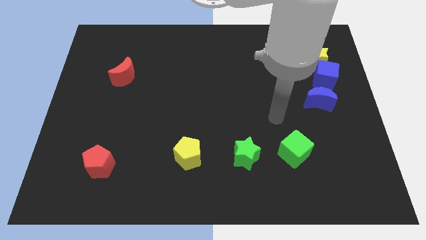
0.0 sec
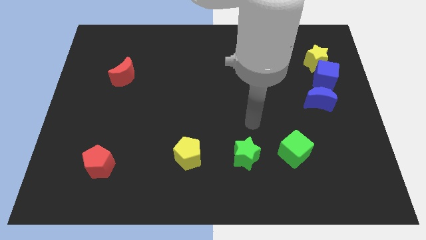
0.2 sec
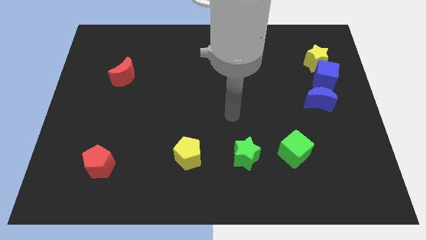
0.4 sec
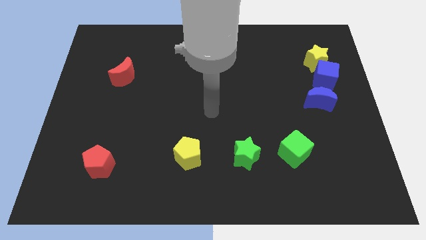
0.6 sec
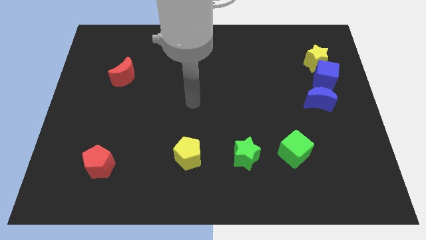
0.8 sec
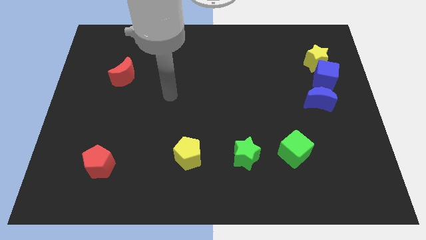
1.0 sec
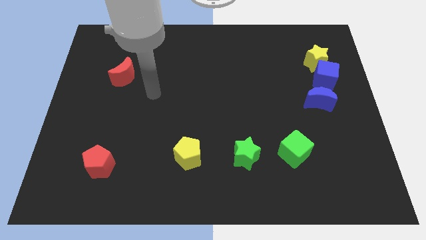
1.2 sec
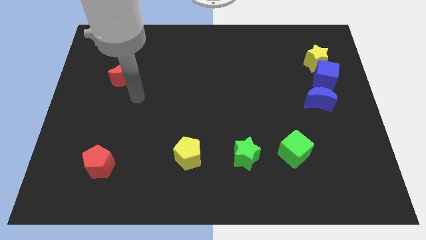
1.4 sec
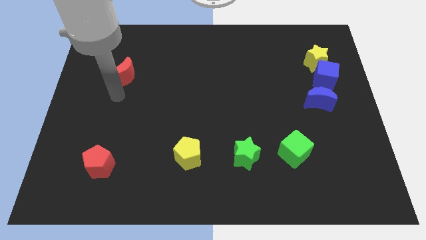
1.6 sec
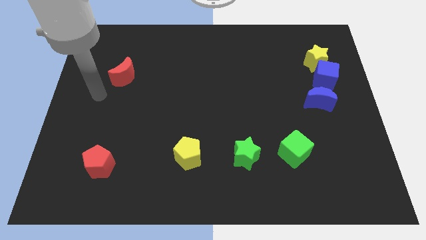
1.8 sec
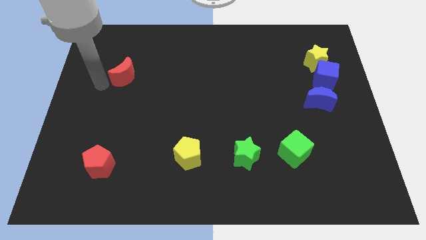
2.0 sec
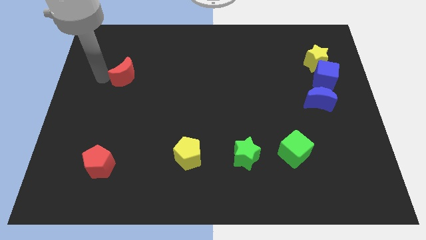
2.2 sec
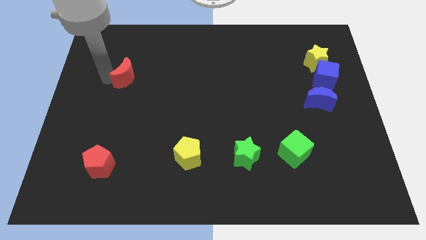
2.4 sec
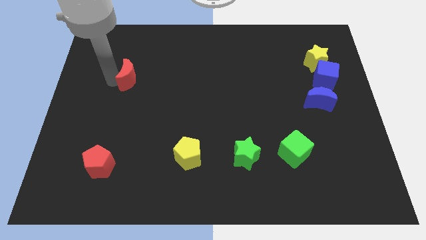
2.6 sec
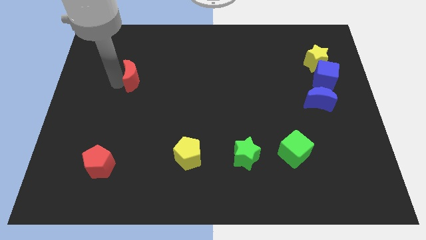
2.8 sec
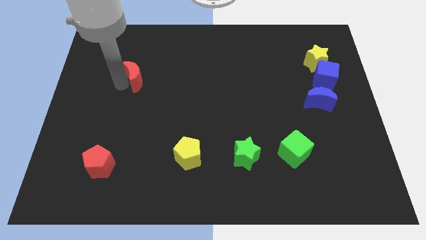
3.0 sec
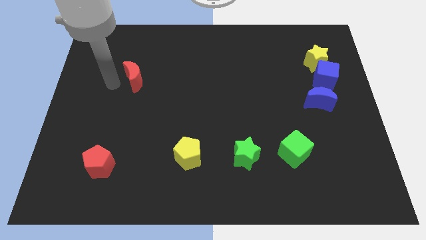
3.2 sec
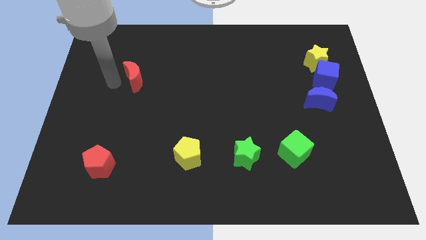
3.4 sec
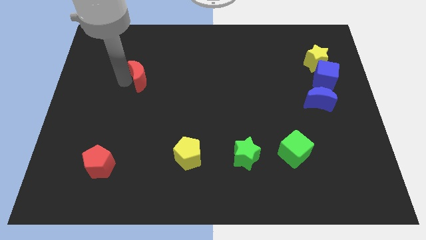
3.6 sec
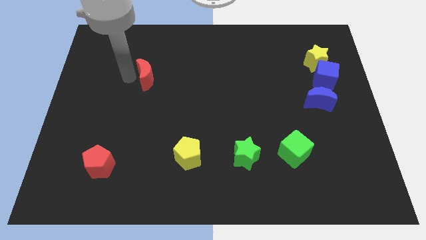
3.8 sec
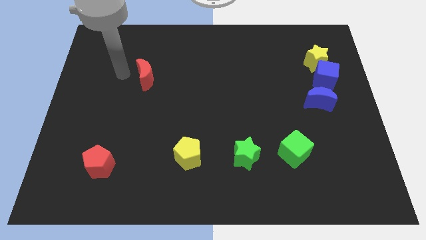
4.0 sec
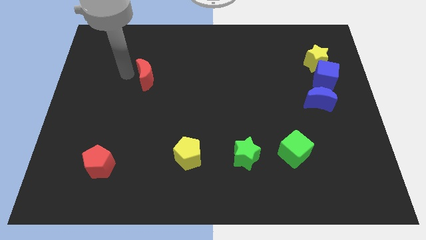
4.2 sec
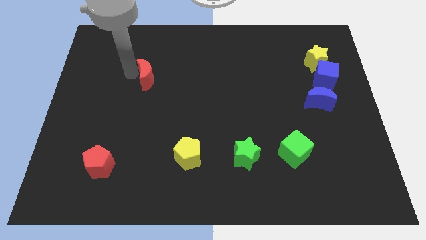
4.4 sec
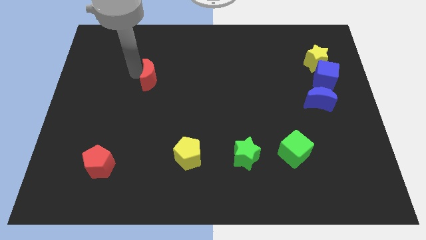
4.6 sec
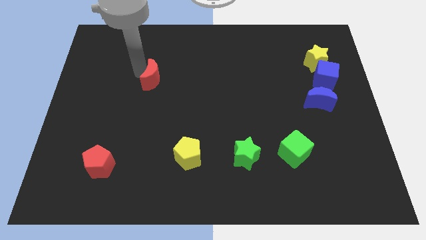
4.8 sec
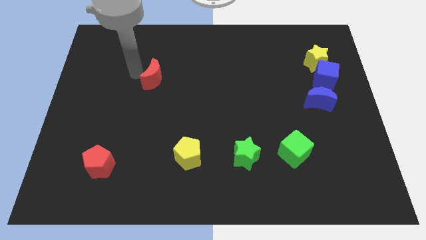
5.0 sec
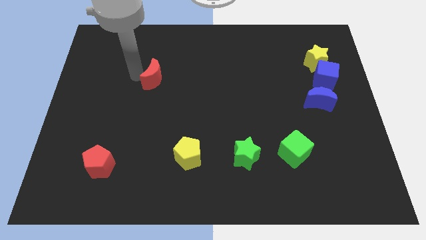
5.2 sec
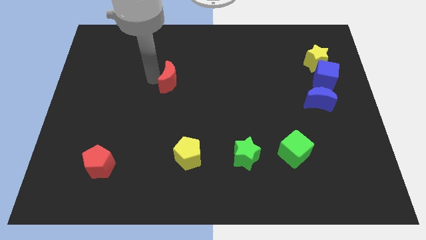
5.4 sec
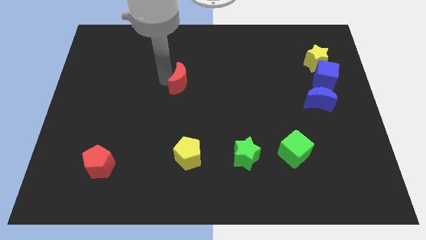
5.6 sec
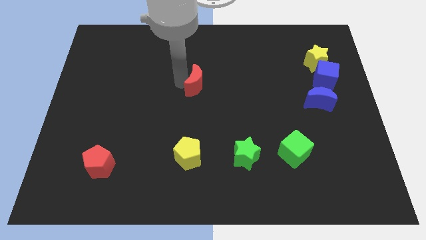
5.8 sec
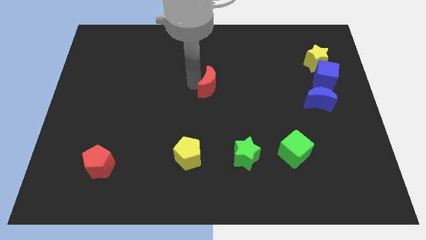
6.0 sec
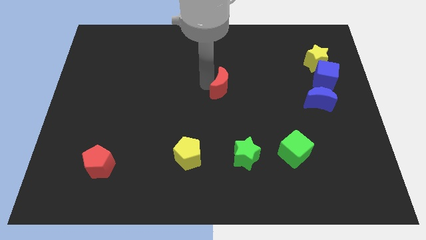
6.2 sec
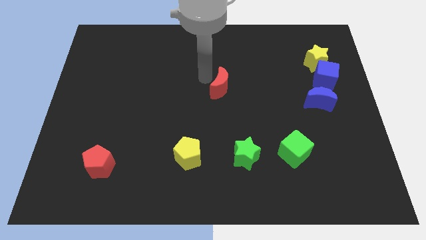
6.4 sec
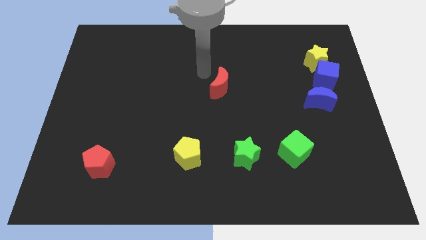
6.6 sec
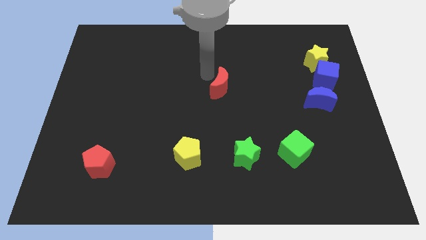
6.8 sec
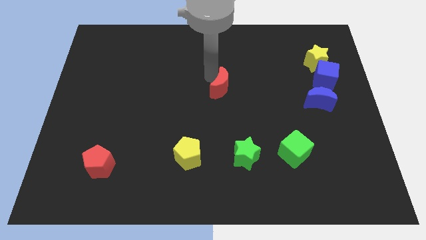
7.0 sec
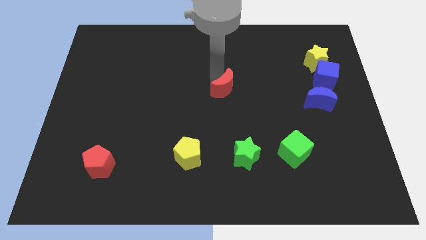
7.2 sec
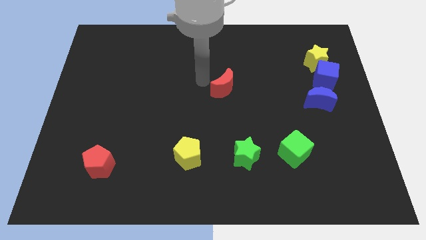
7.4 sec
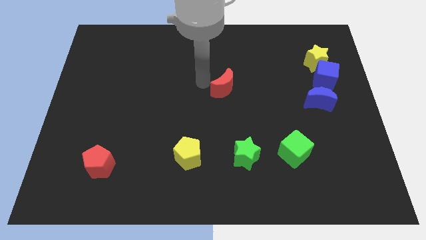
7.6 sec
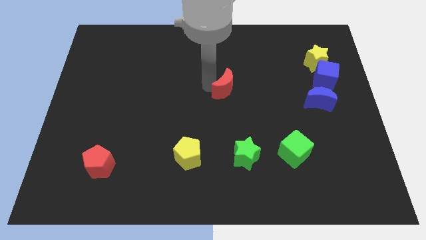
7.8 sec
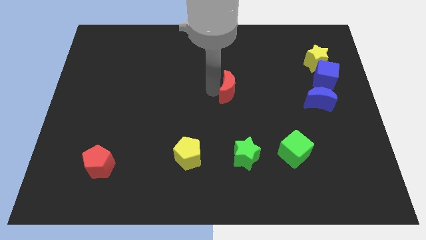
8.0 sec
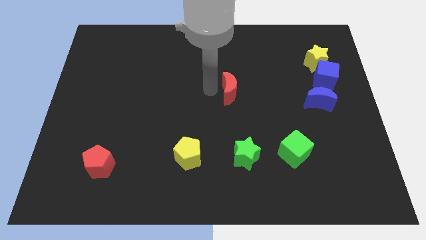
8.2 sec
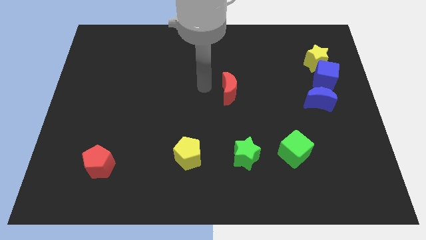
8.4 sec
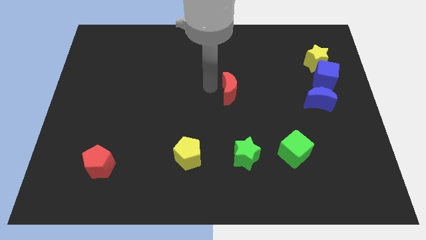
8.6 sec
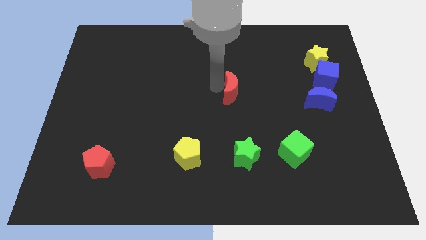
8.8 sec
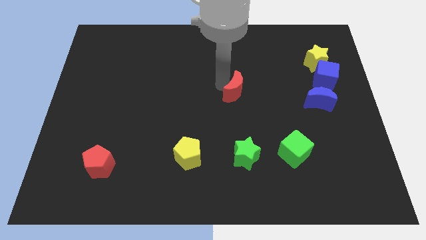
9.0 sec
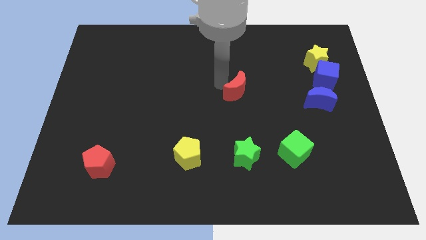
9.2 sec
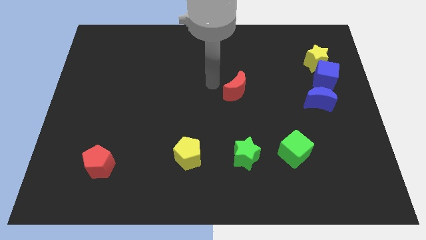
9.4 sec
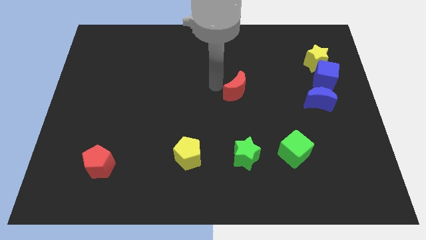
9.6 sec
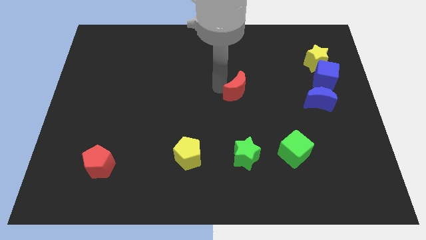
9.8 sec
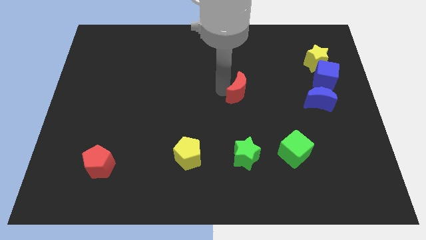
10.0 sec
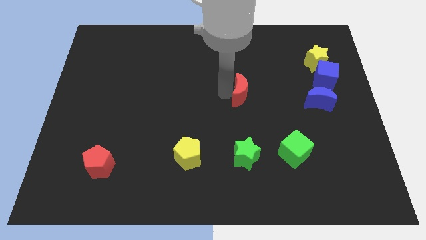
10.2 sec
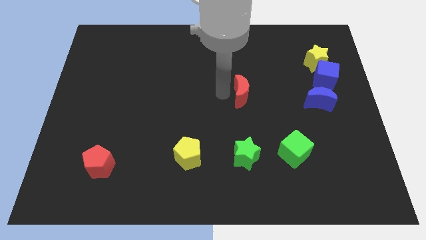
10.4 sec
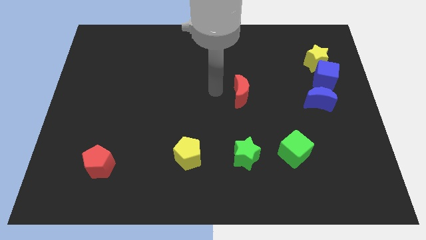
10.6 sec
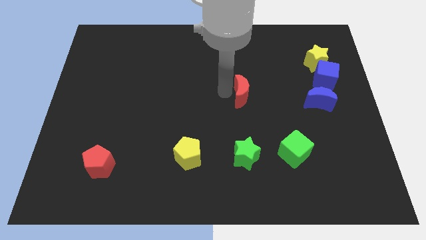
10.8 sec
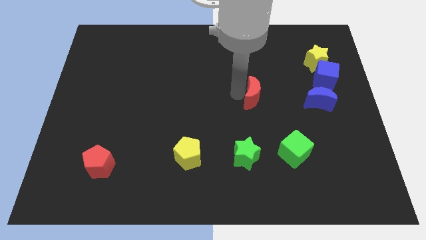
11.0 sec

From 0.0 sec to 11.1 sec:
move the red moon just left of the blue moon

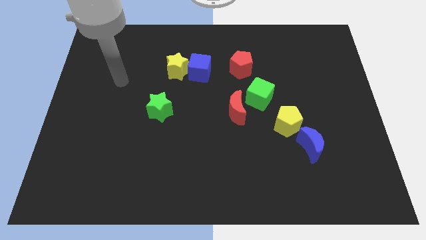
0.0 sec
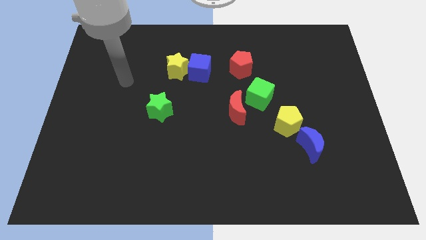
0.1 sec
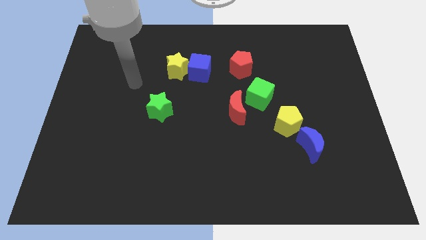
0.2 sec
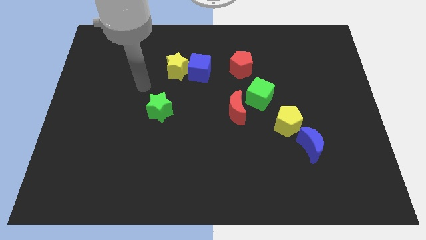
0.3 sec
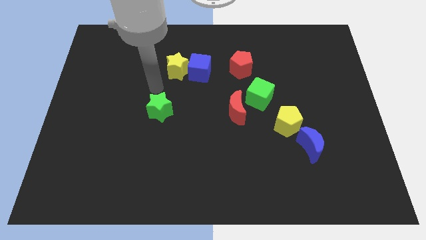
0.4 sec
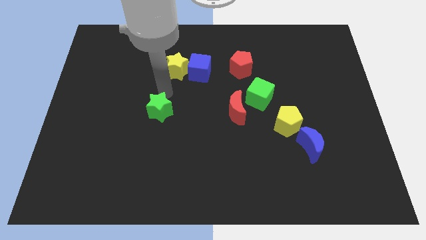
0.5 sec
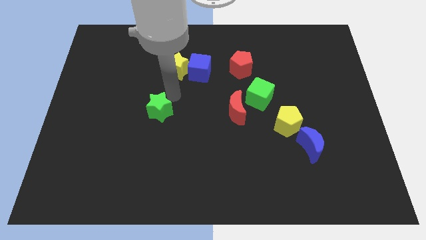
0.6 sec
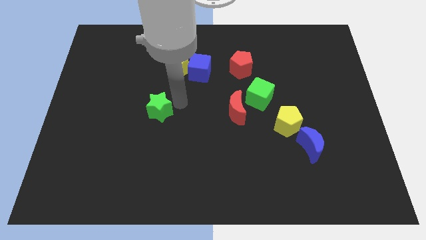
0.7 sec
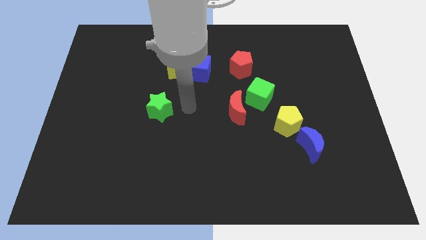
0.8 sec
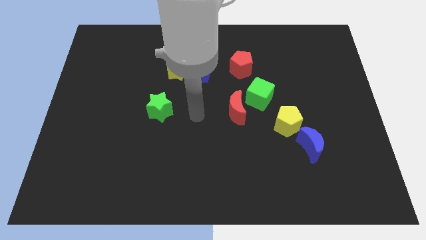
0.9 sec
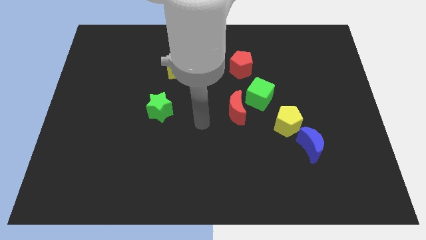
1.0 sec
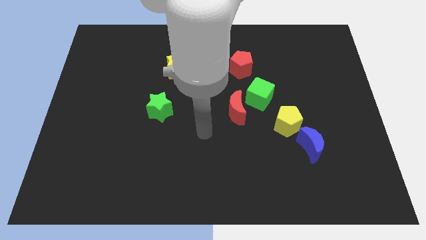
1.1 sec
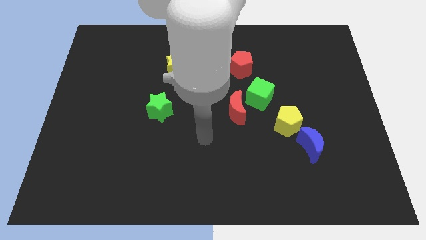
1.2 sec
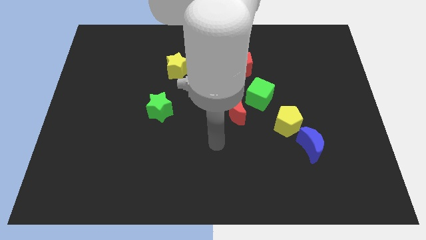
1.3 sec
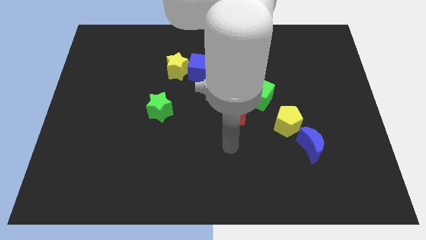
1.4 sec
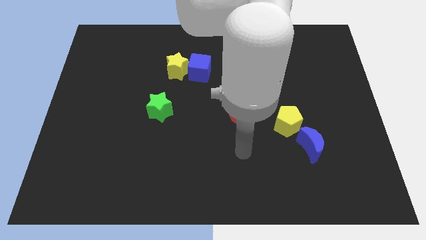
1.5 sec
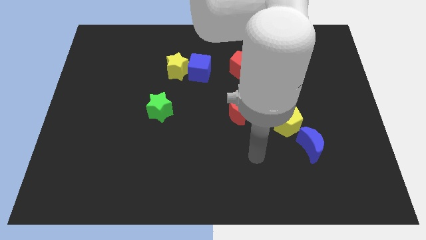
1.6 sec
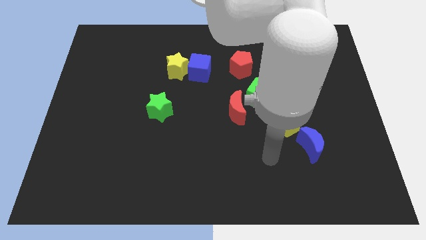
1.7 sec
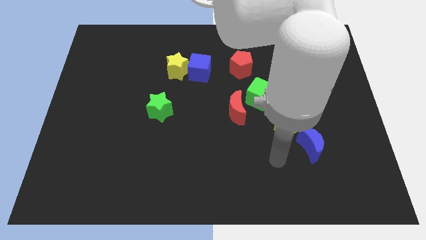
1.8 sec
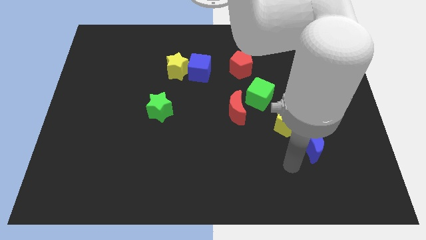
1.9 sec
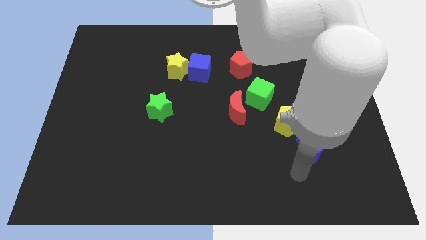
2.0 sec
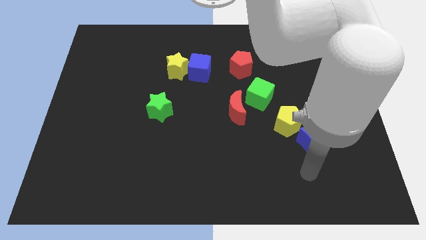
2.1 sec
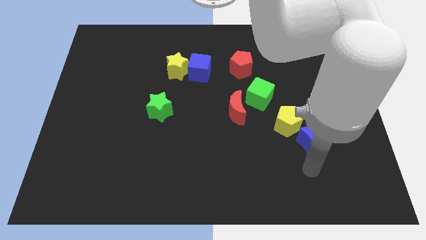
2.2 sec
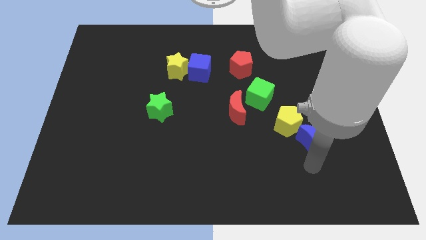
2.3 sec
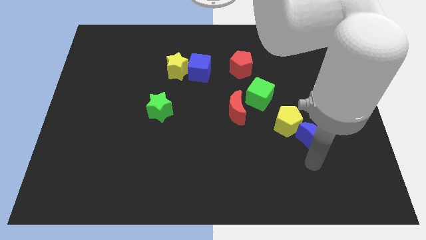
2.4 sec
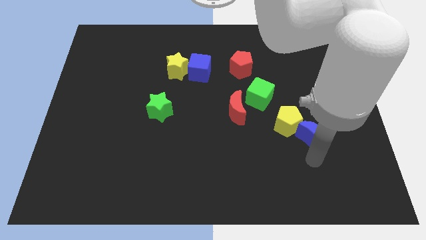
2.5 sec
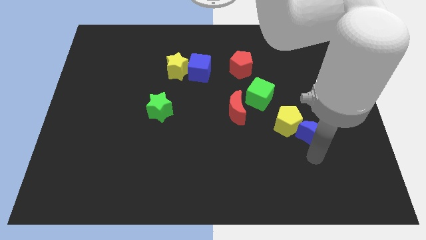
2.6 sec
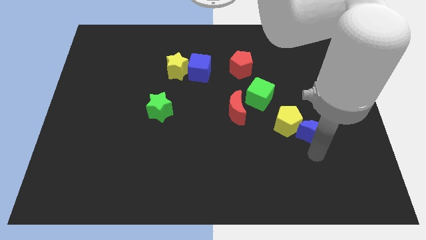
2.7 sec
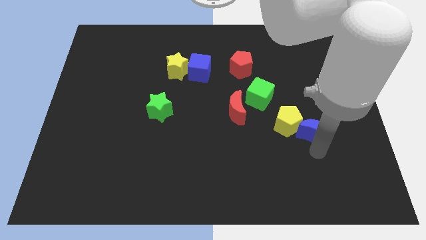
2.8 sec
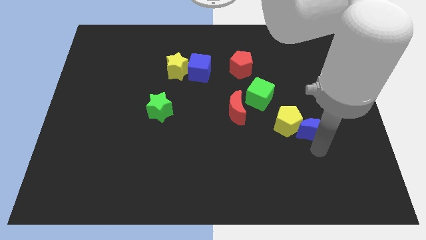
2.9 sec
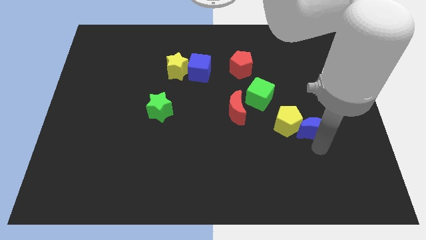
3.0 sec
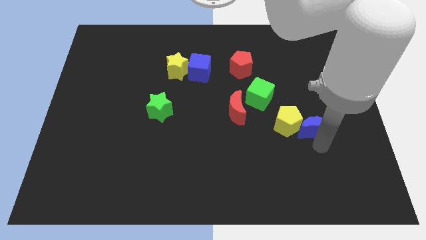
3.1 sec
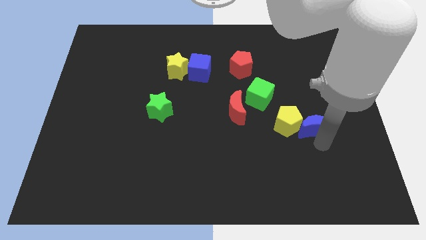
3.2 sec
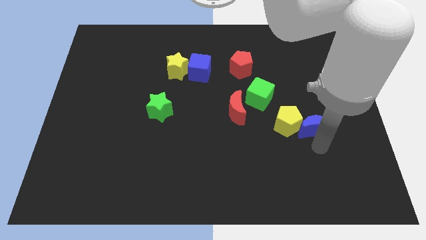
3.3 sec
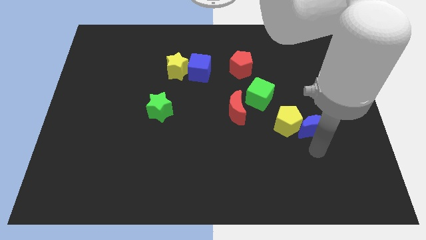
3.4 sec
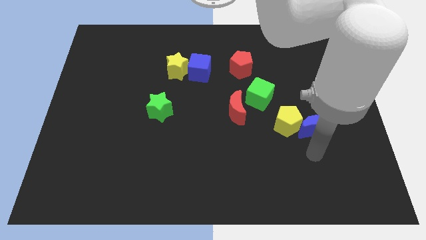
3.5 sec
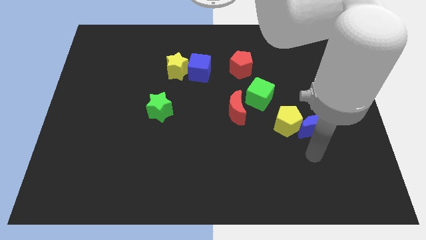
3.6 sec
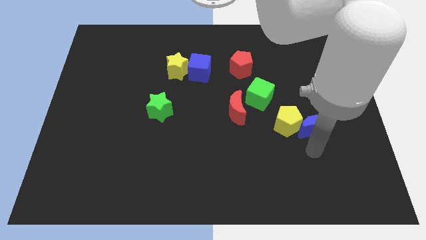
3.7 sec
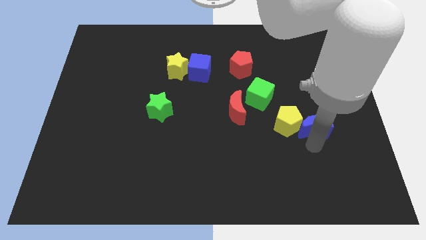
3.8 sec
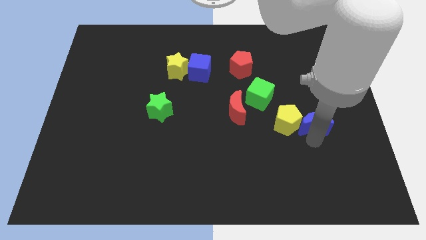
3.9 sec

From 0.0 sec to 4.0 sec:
move the blue moon diagonally up and to the right of the yellow pentagon
